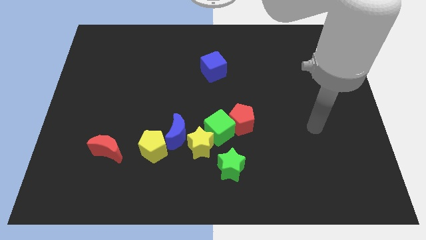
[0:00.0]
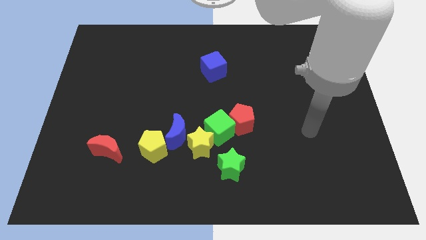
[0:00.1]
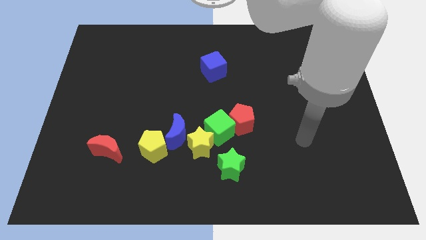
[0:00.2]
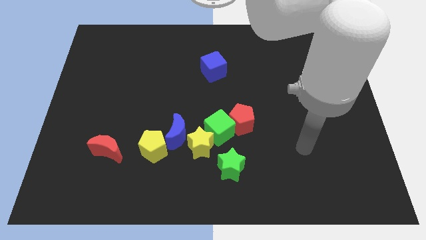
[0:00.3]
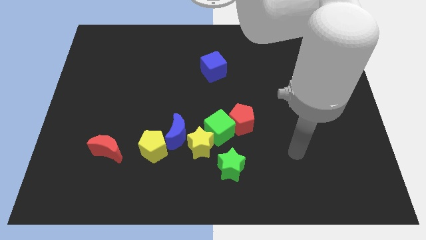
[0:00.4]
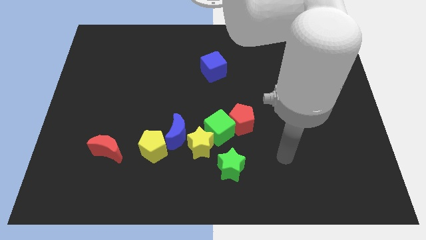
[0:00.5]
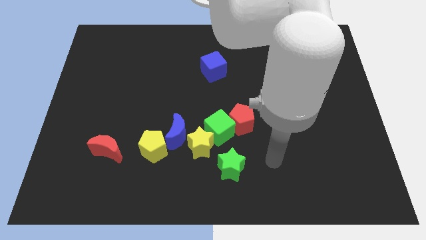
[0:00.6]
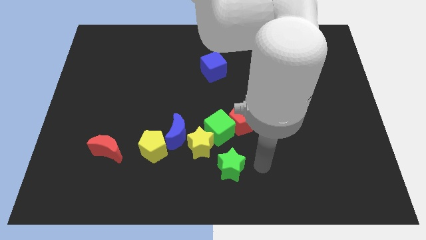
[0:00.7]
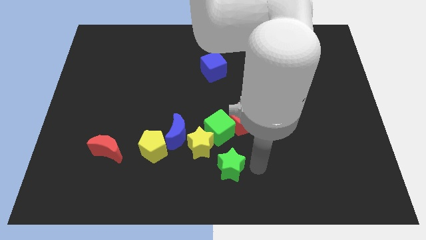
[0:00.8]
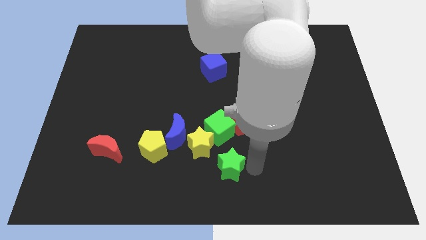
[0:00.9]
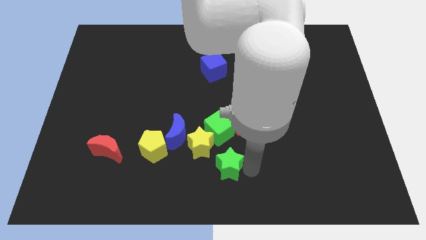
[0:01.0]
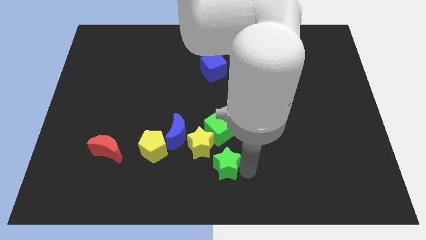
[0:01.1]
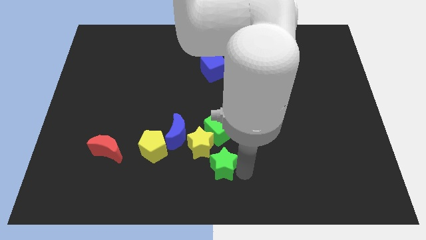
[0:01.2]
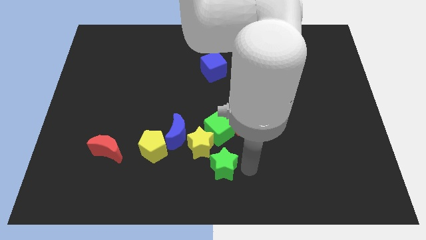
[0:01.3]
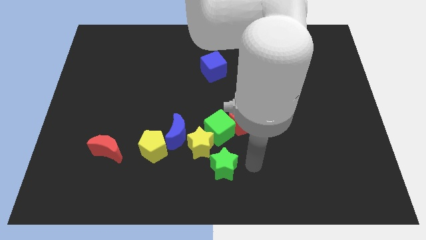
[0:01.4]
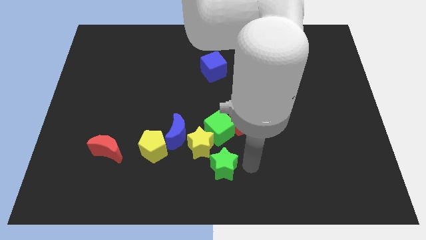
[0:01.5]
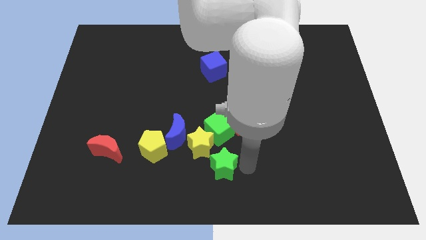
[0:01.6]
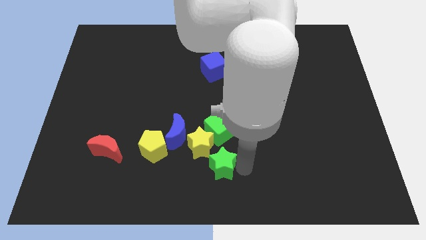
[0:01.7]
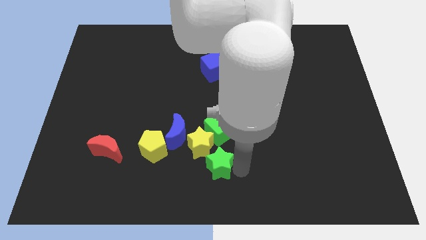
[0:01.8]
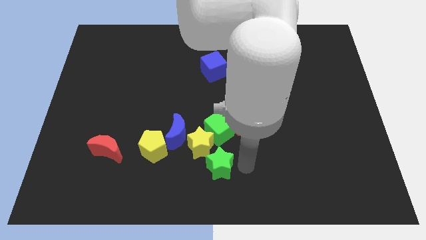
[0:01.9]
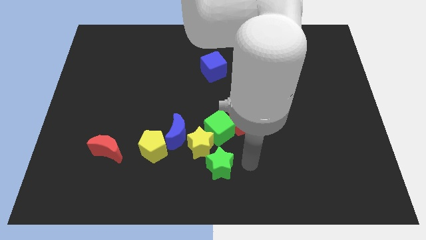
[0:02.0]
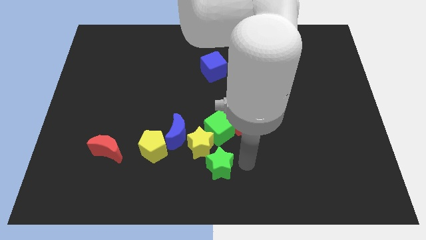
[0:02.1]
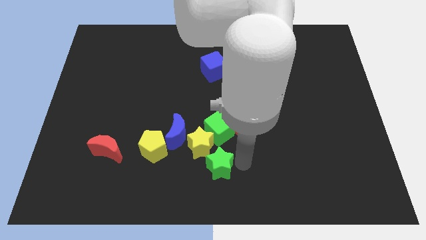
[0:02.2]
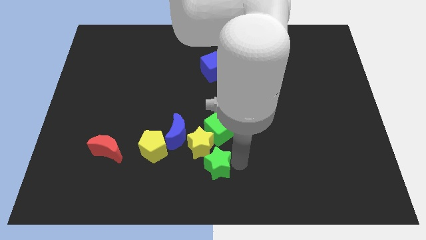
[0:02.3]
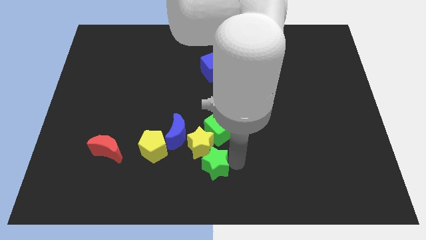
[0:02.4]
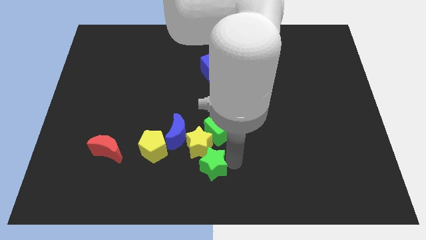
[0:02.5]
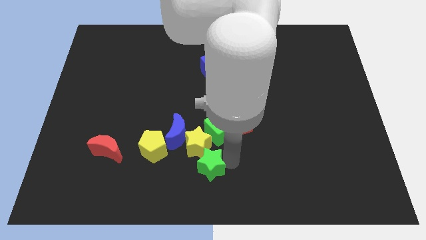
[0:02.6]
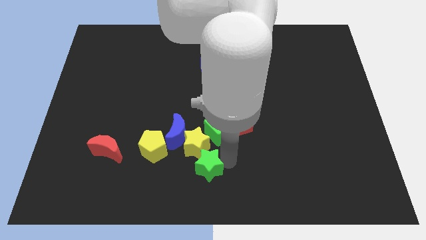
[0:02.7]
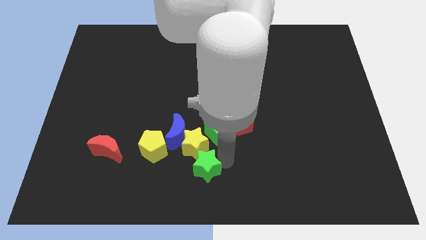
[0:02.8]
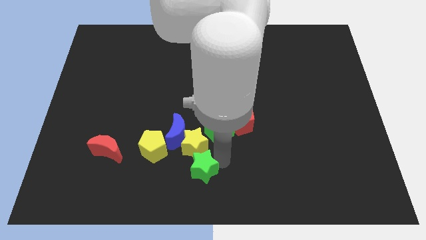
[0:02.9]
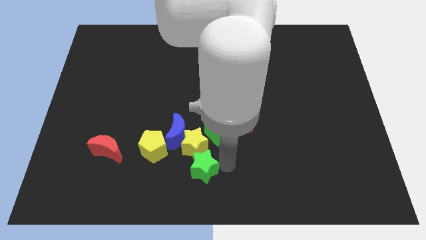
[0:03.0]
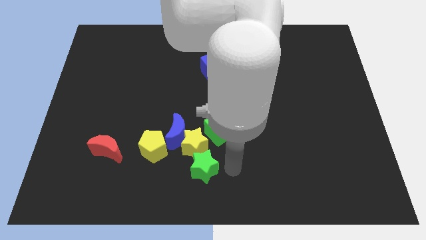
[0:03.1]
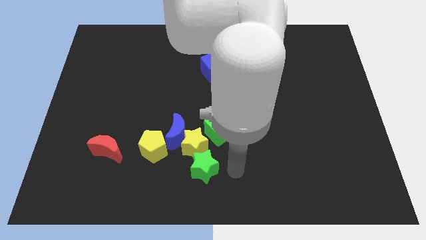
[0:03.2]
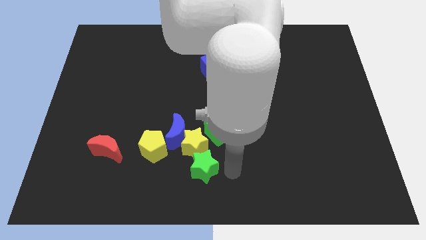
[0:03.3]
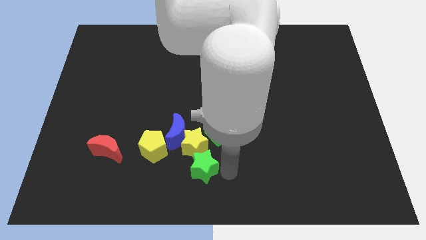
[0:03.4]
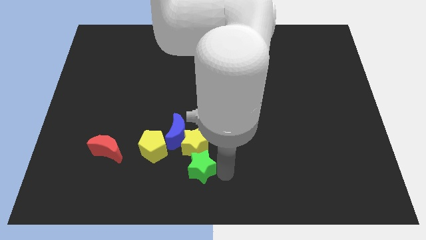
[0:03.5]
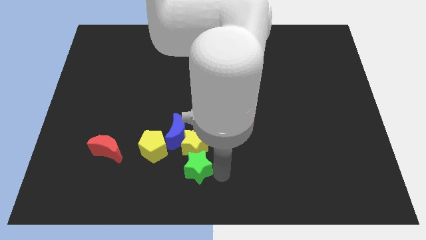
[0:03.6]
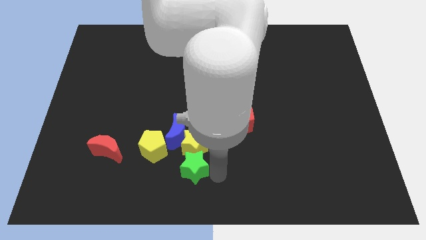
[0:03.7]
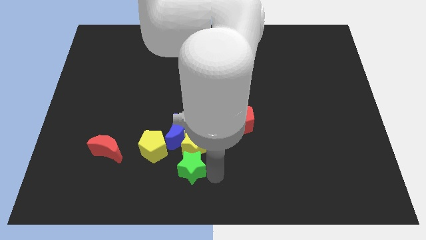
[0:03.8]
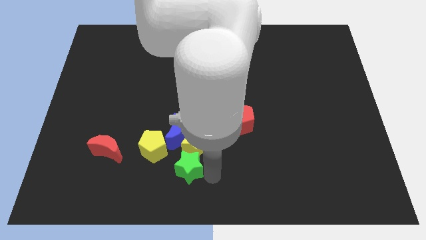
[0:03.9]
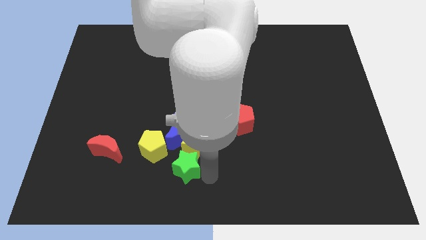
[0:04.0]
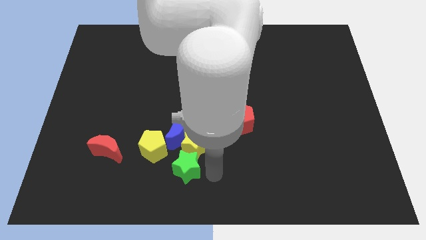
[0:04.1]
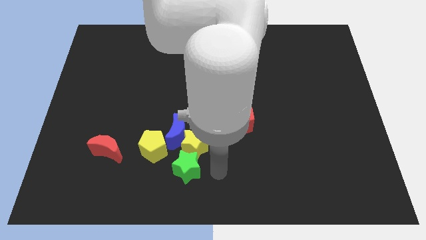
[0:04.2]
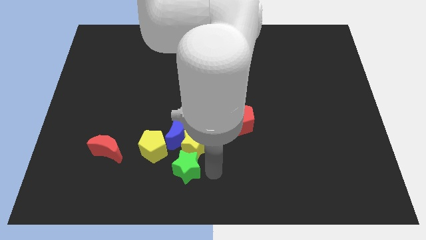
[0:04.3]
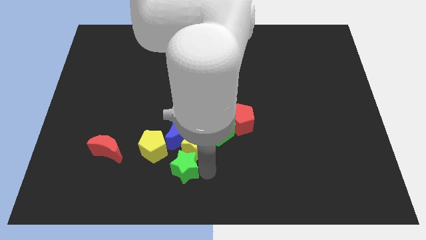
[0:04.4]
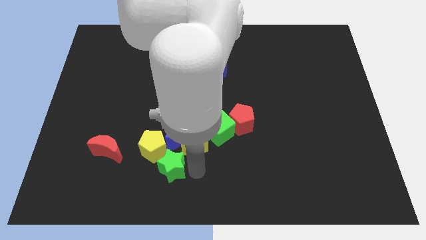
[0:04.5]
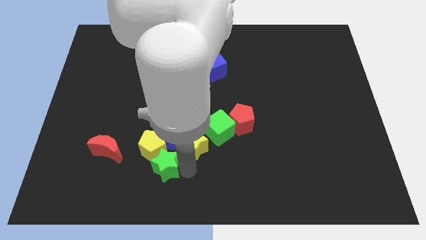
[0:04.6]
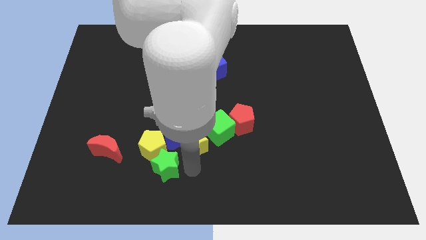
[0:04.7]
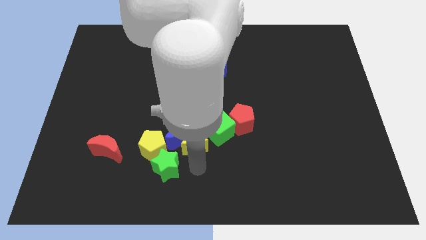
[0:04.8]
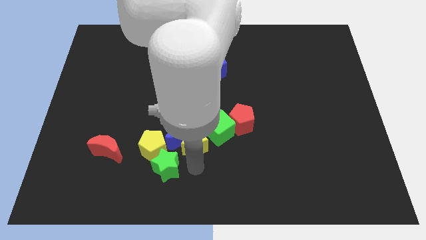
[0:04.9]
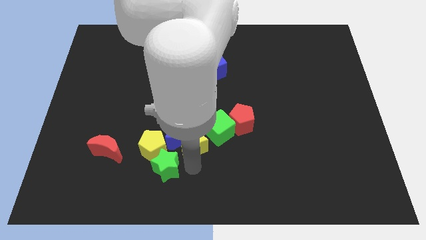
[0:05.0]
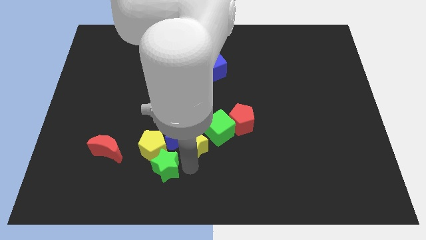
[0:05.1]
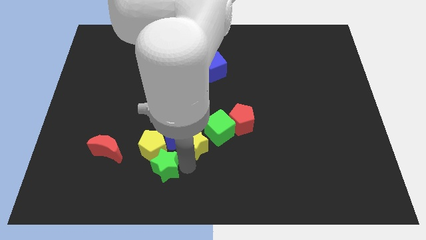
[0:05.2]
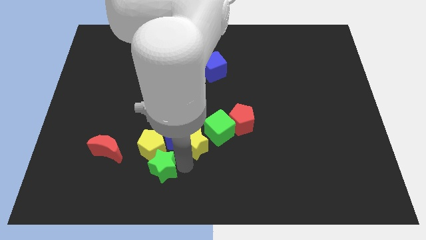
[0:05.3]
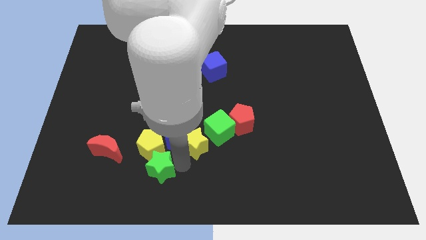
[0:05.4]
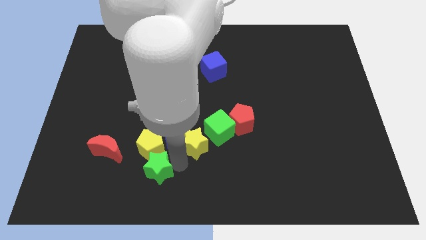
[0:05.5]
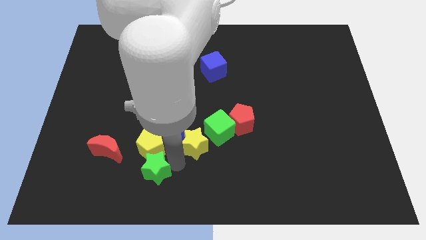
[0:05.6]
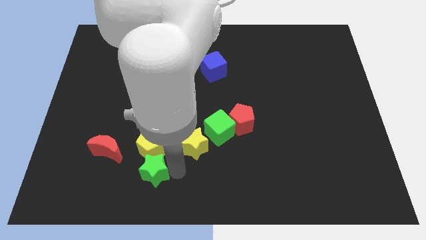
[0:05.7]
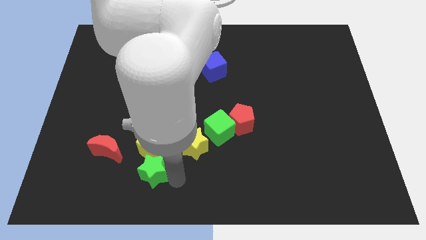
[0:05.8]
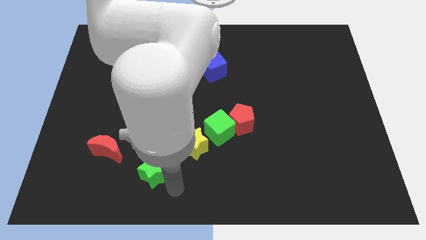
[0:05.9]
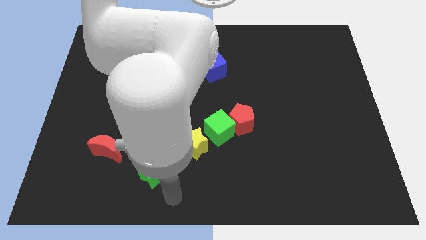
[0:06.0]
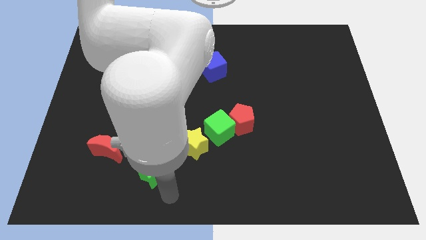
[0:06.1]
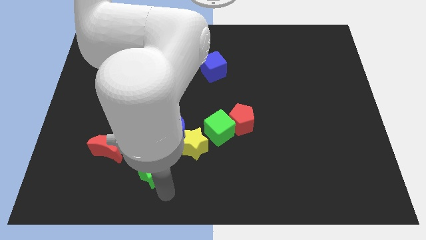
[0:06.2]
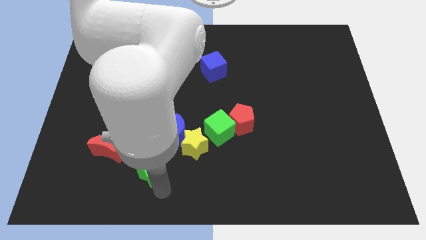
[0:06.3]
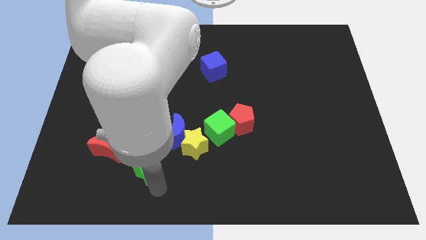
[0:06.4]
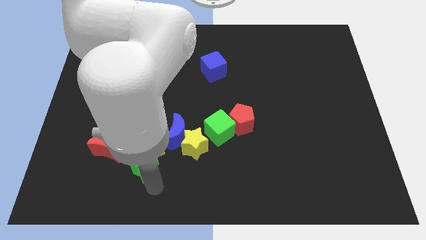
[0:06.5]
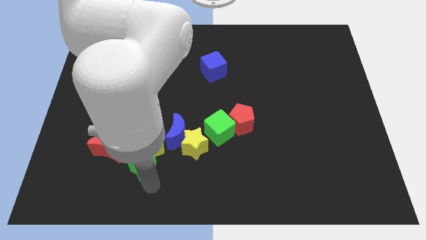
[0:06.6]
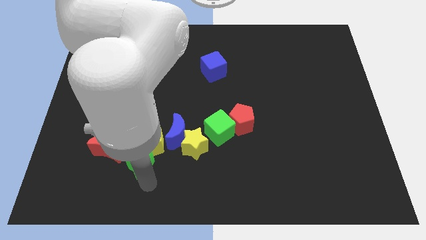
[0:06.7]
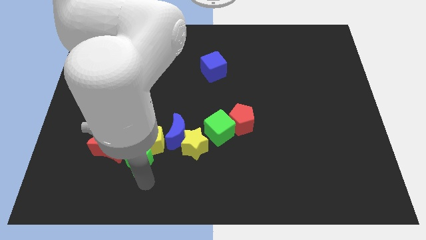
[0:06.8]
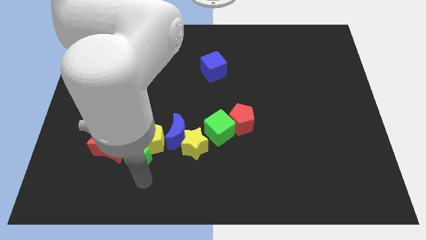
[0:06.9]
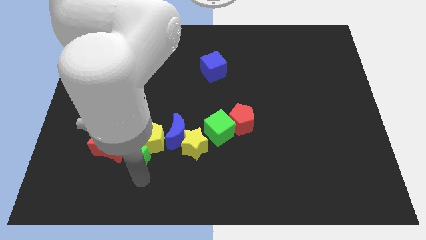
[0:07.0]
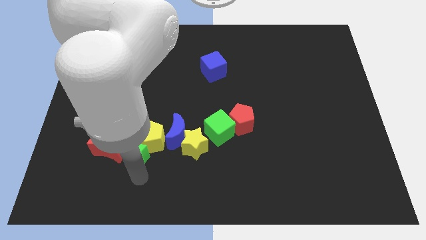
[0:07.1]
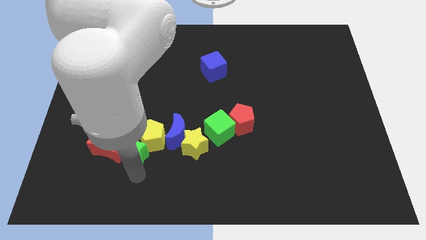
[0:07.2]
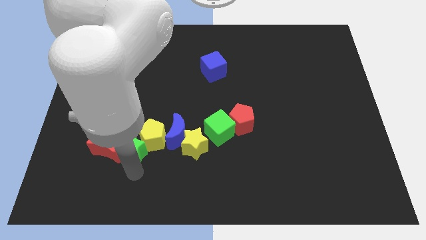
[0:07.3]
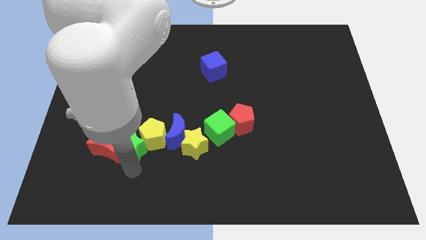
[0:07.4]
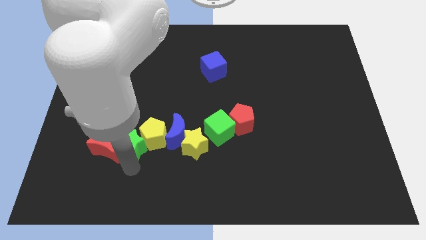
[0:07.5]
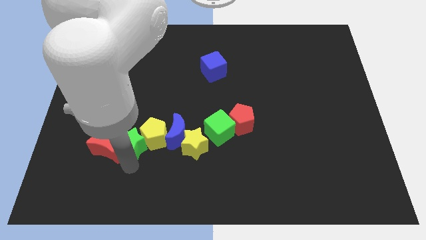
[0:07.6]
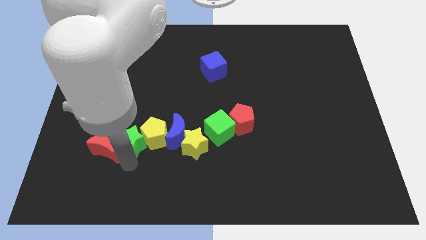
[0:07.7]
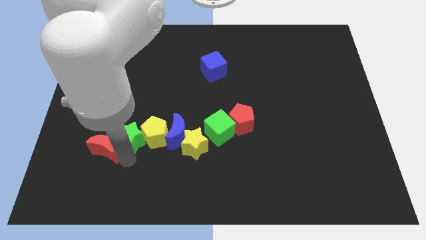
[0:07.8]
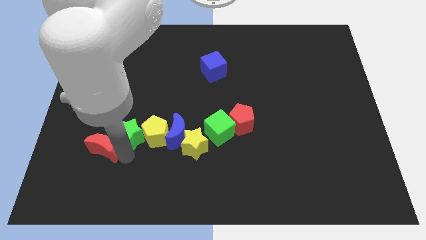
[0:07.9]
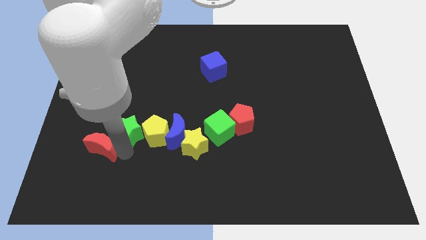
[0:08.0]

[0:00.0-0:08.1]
push the green star above the red moon
